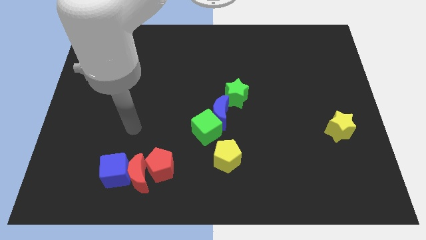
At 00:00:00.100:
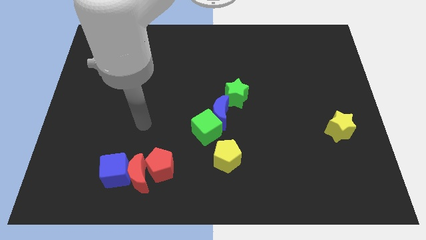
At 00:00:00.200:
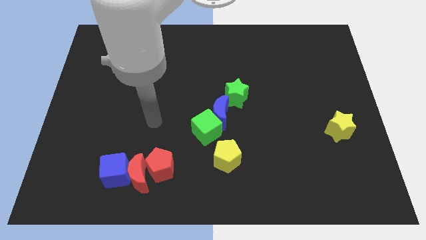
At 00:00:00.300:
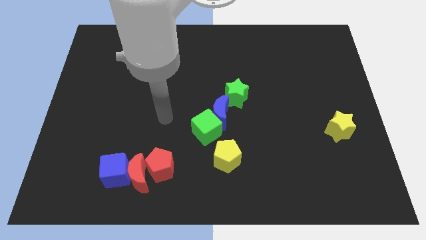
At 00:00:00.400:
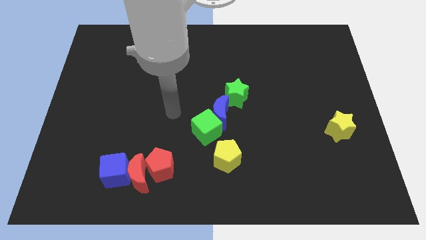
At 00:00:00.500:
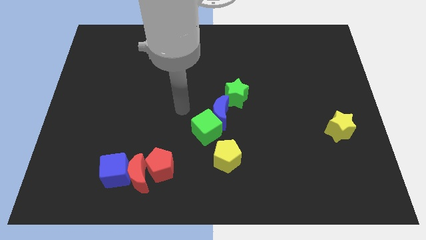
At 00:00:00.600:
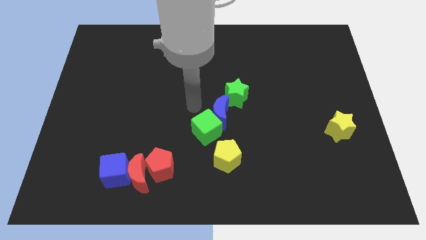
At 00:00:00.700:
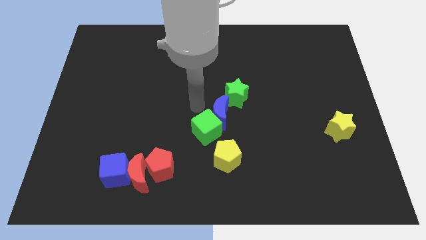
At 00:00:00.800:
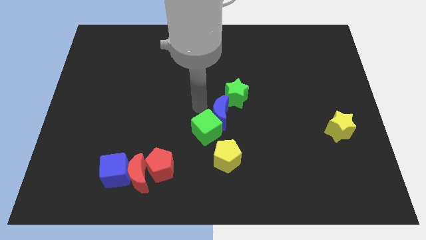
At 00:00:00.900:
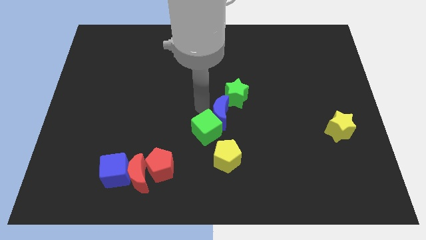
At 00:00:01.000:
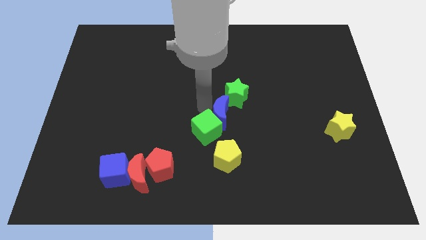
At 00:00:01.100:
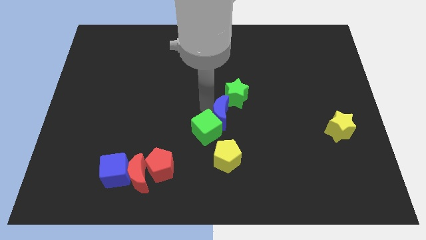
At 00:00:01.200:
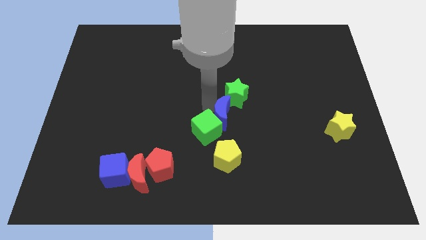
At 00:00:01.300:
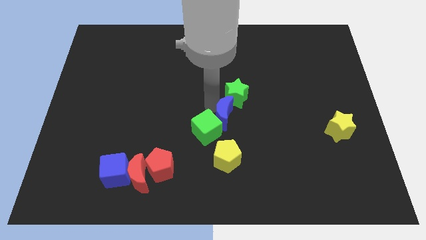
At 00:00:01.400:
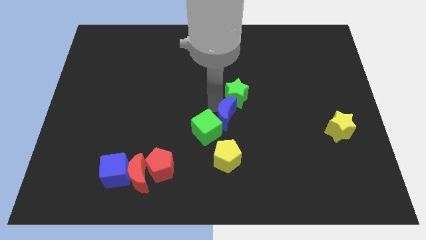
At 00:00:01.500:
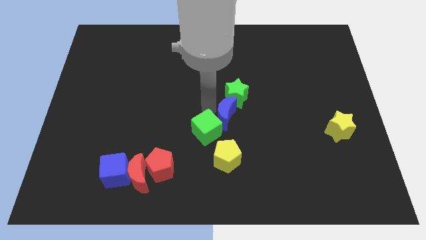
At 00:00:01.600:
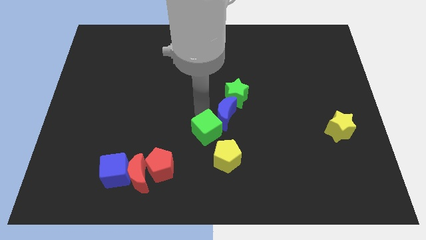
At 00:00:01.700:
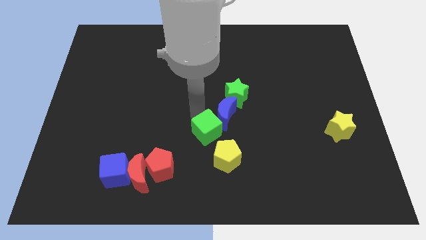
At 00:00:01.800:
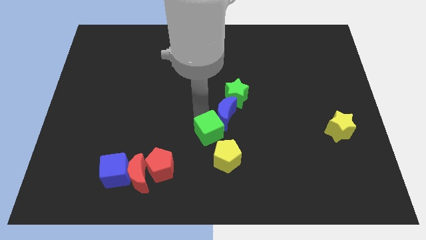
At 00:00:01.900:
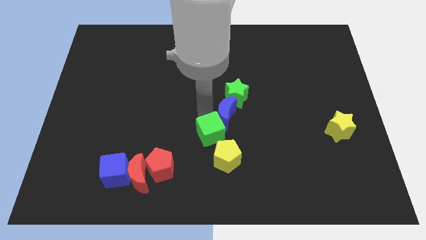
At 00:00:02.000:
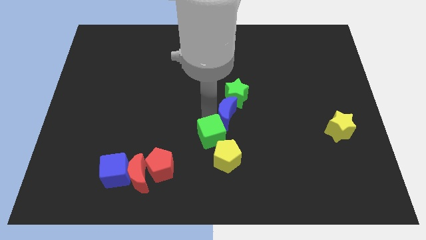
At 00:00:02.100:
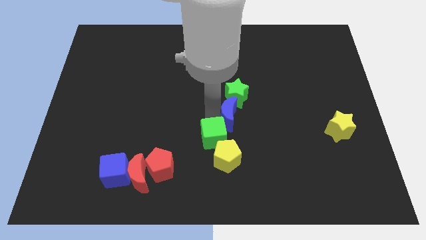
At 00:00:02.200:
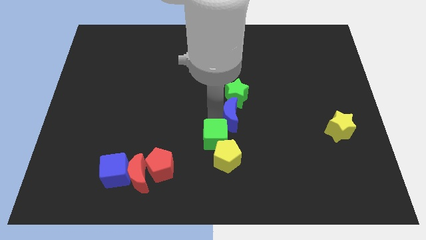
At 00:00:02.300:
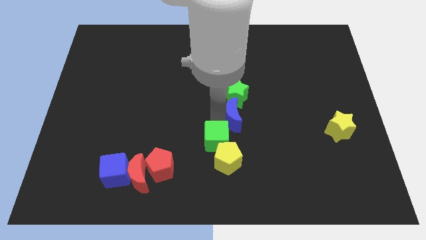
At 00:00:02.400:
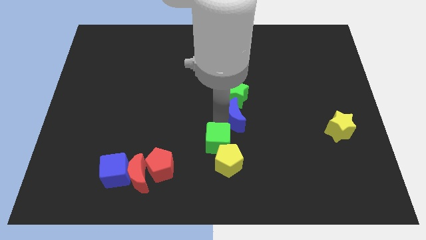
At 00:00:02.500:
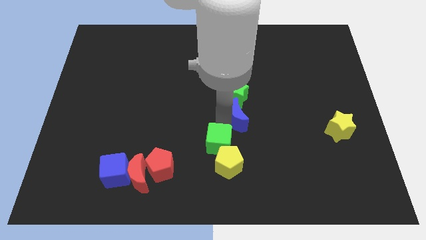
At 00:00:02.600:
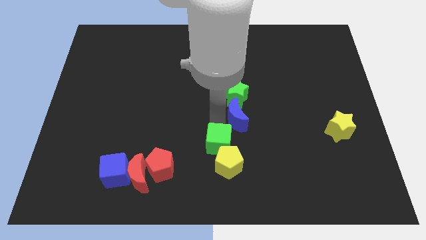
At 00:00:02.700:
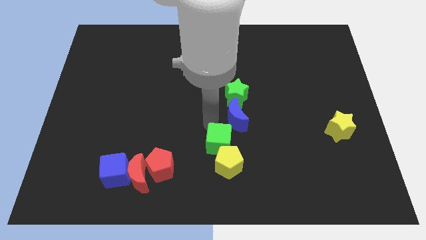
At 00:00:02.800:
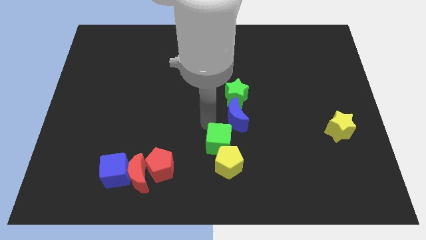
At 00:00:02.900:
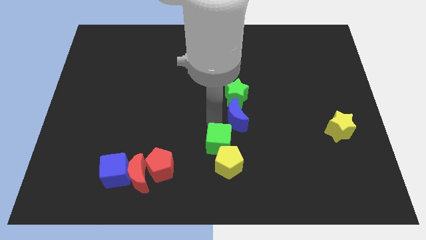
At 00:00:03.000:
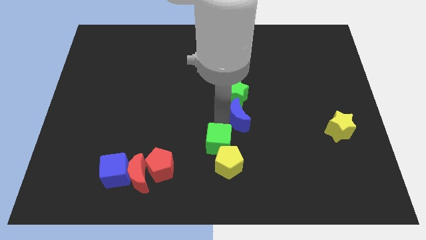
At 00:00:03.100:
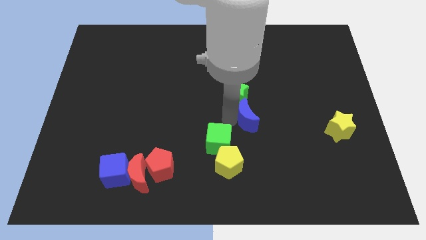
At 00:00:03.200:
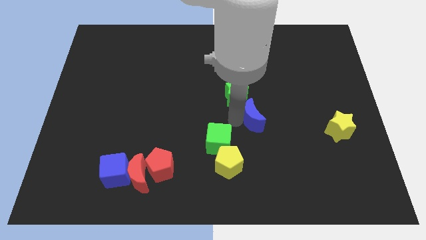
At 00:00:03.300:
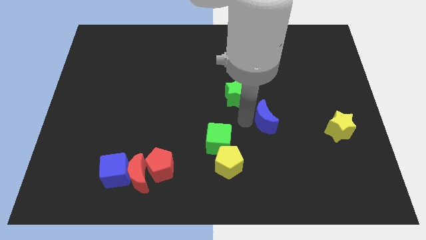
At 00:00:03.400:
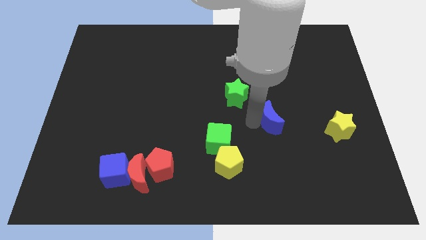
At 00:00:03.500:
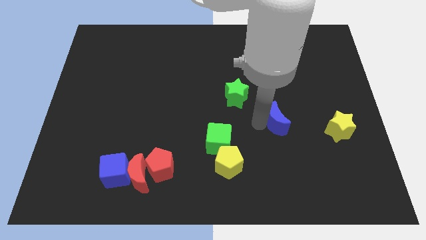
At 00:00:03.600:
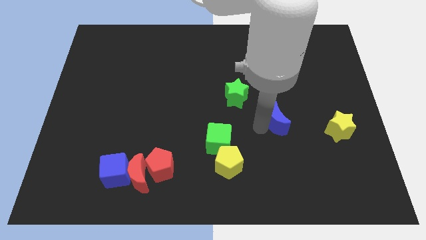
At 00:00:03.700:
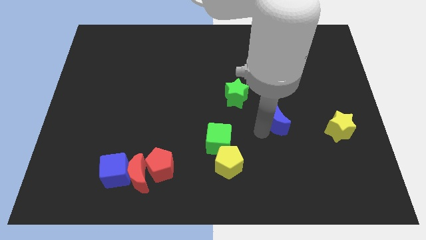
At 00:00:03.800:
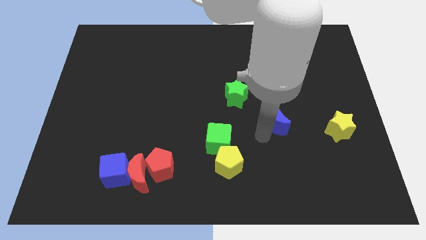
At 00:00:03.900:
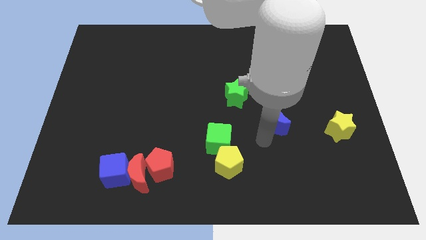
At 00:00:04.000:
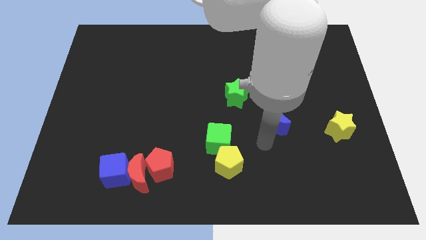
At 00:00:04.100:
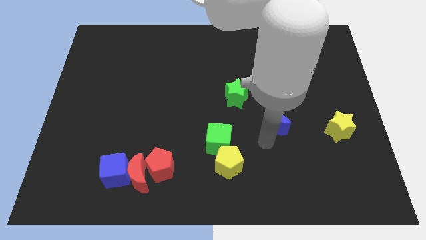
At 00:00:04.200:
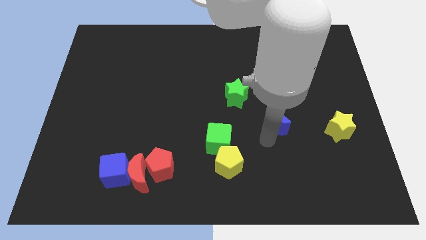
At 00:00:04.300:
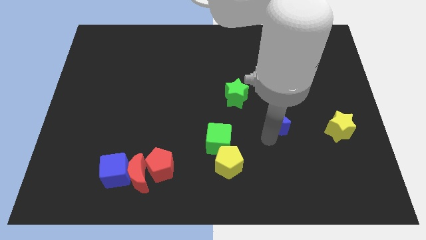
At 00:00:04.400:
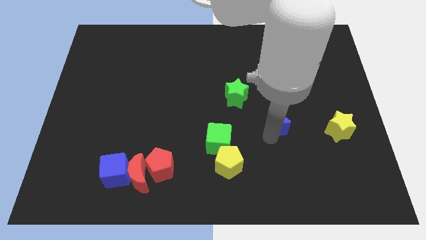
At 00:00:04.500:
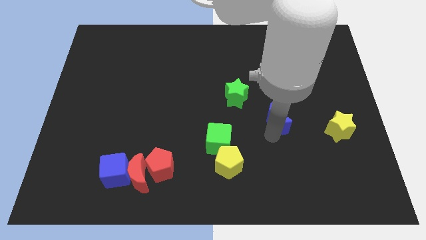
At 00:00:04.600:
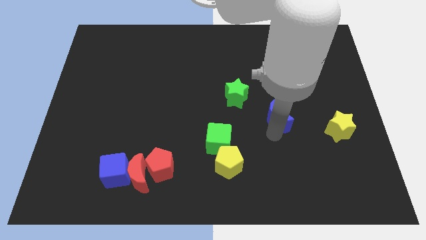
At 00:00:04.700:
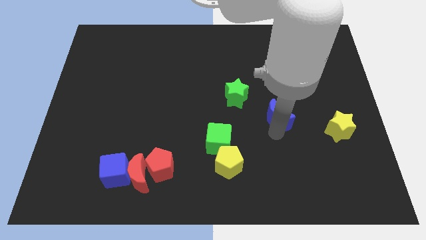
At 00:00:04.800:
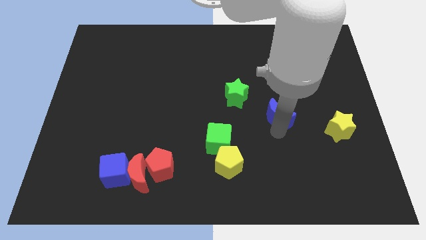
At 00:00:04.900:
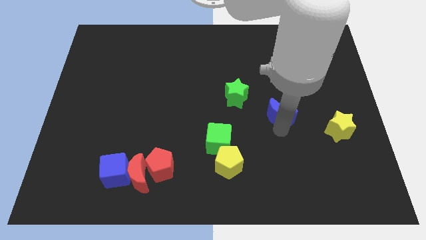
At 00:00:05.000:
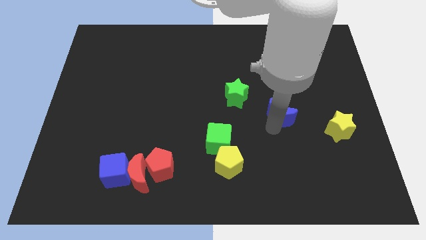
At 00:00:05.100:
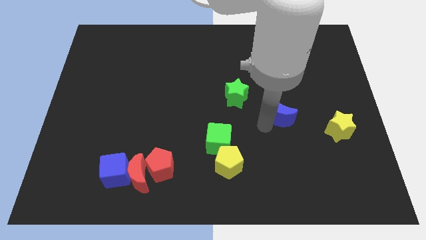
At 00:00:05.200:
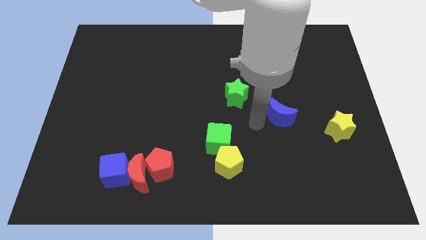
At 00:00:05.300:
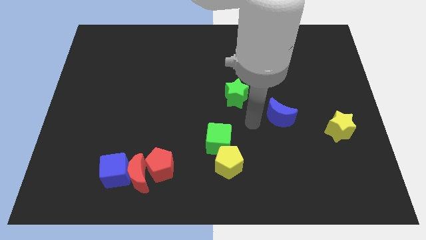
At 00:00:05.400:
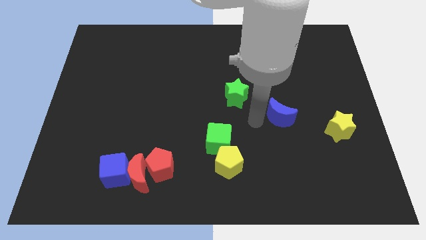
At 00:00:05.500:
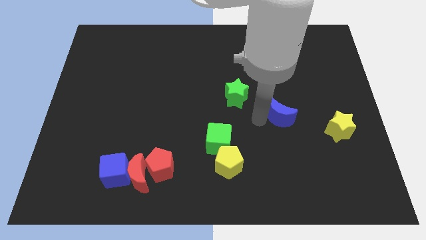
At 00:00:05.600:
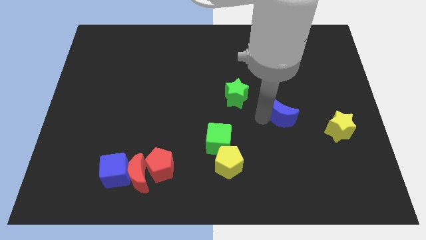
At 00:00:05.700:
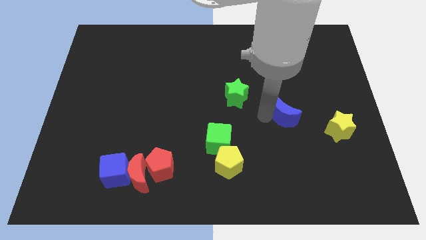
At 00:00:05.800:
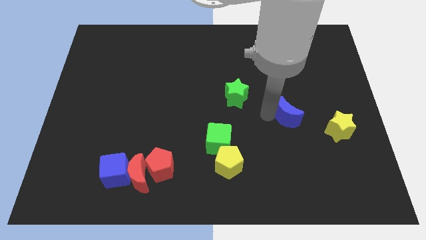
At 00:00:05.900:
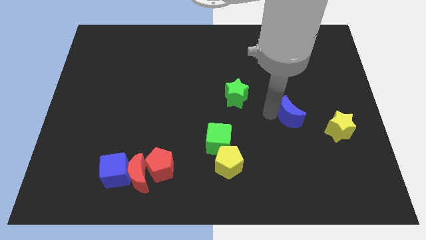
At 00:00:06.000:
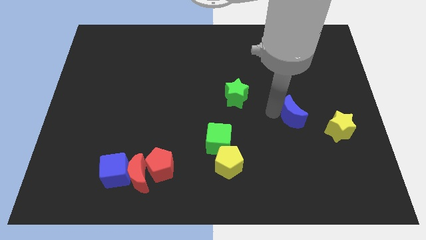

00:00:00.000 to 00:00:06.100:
put the blue moon to the top left side of the yellow star

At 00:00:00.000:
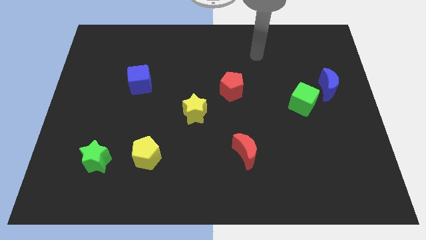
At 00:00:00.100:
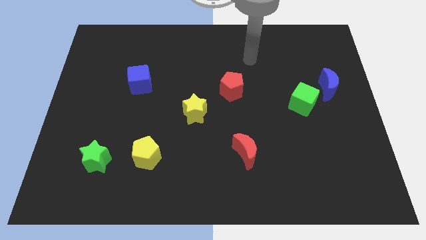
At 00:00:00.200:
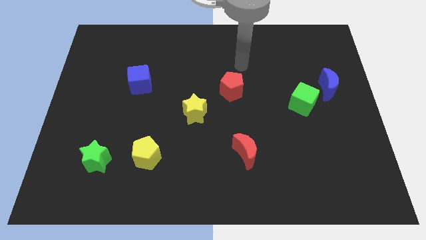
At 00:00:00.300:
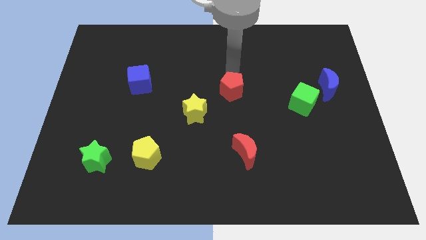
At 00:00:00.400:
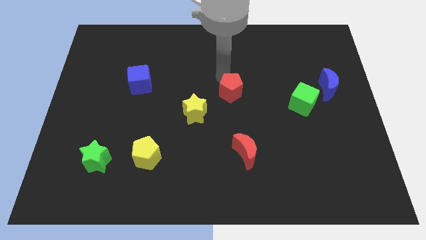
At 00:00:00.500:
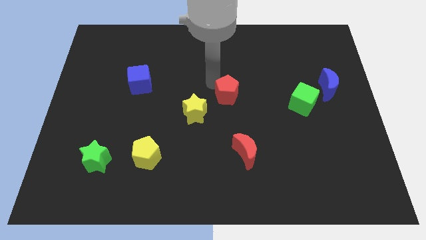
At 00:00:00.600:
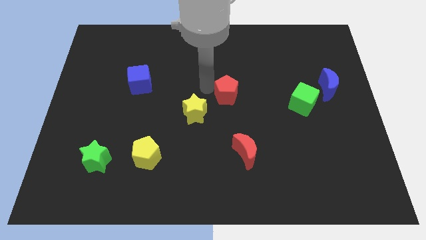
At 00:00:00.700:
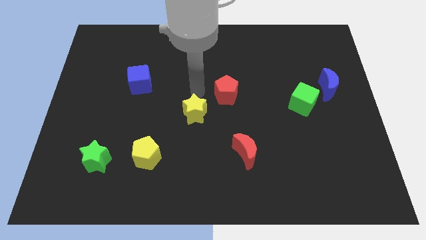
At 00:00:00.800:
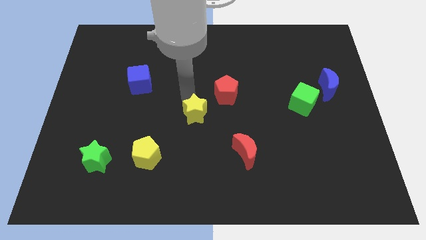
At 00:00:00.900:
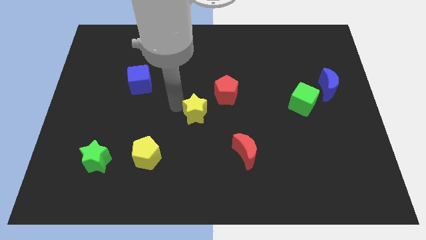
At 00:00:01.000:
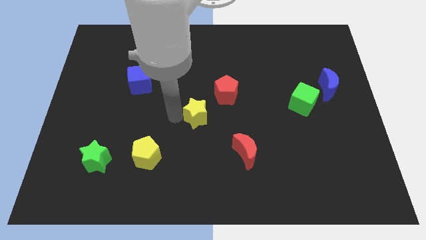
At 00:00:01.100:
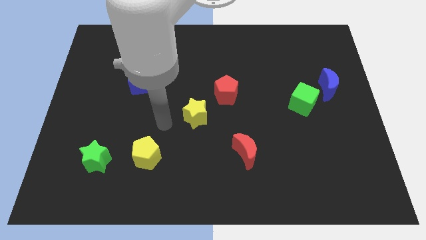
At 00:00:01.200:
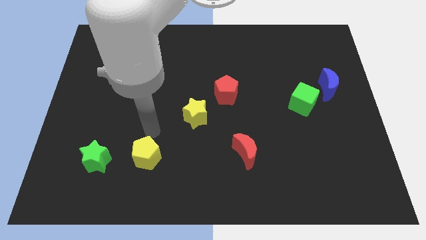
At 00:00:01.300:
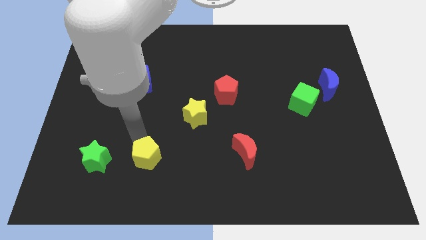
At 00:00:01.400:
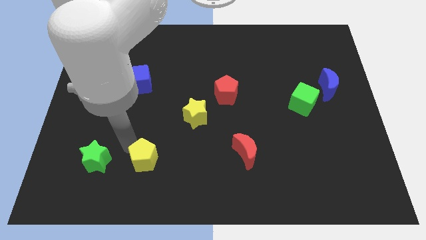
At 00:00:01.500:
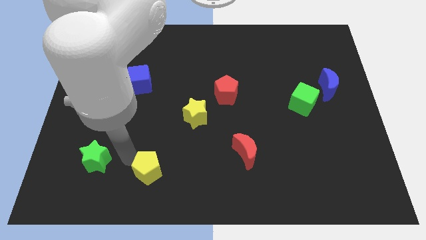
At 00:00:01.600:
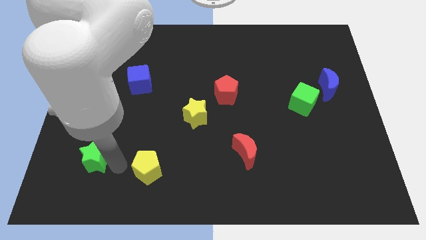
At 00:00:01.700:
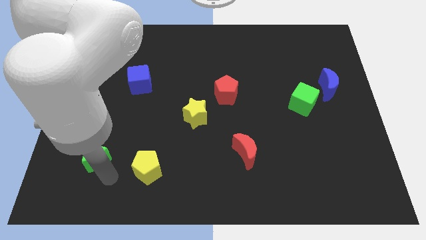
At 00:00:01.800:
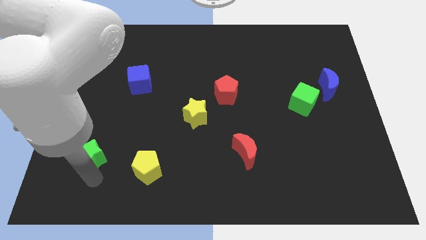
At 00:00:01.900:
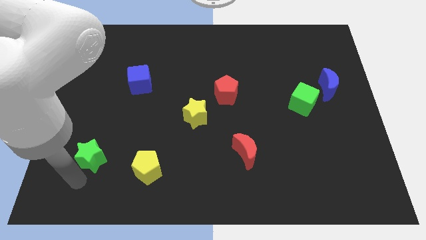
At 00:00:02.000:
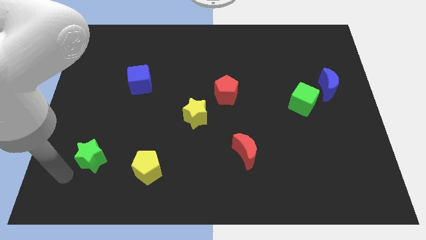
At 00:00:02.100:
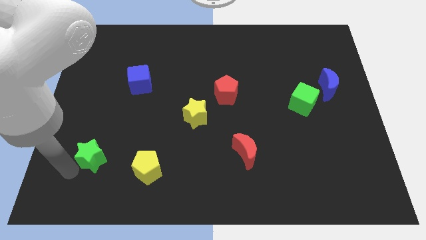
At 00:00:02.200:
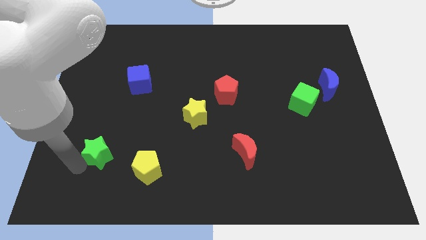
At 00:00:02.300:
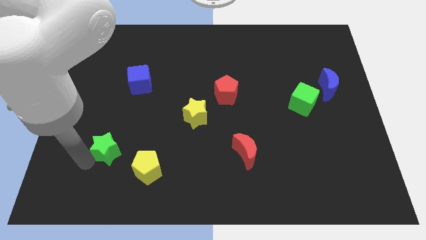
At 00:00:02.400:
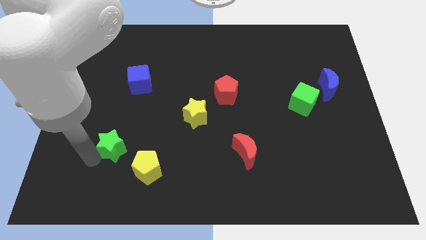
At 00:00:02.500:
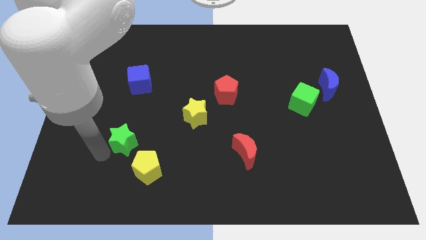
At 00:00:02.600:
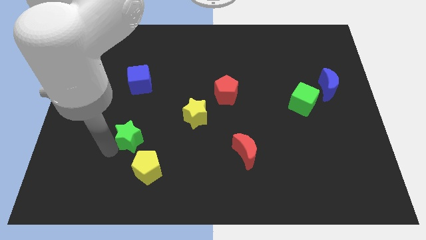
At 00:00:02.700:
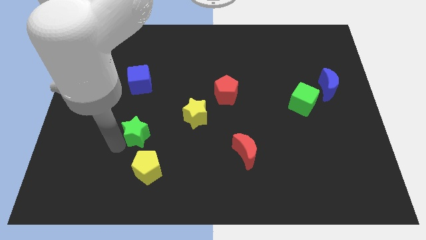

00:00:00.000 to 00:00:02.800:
put the green star above the yellow pentagon
